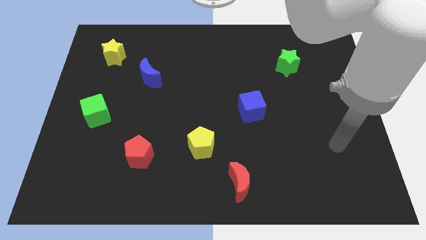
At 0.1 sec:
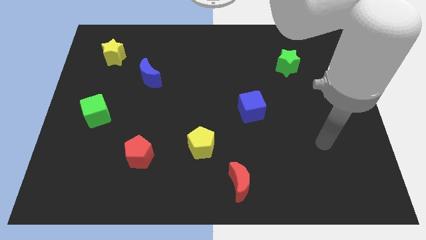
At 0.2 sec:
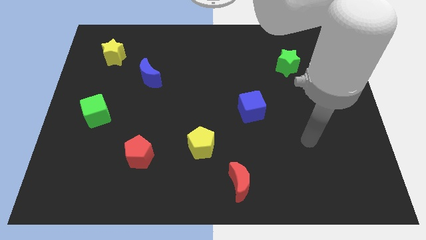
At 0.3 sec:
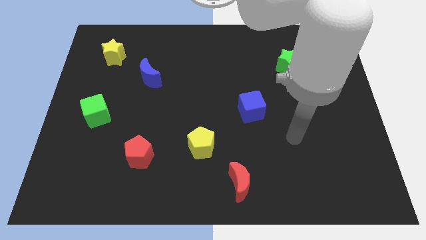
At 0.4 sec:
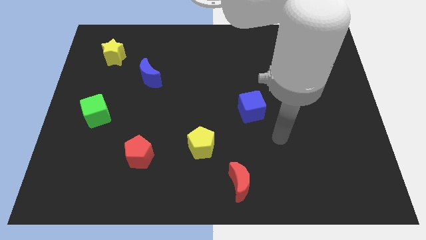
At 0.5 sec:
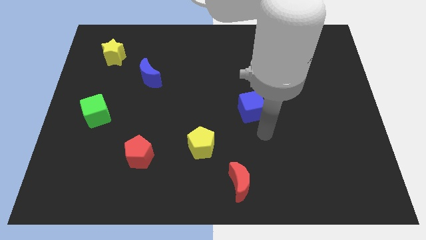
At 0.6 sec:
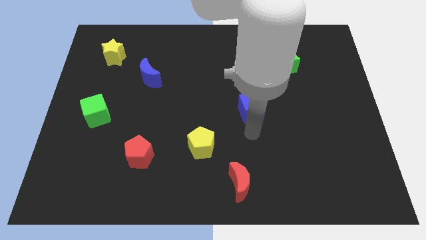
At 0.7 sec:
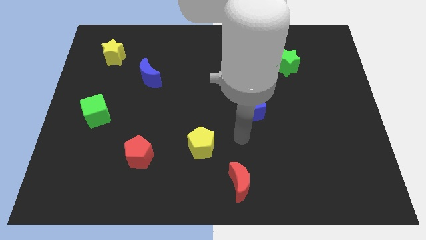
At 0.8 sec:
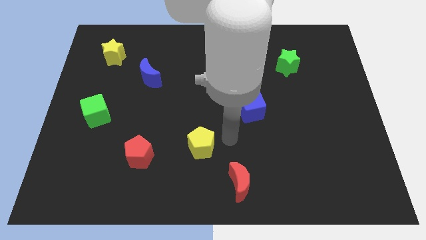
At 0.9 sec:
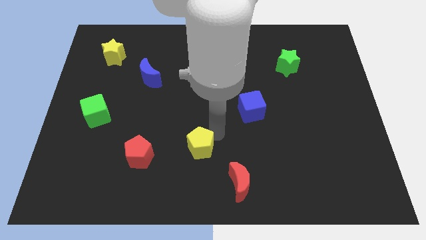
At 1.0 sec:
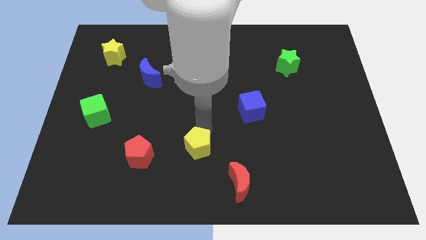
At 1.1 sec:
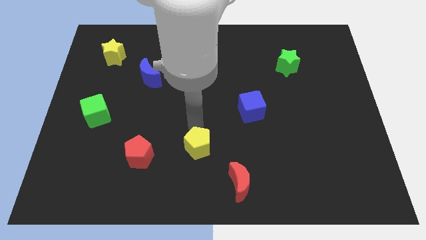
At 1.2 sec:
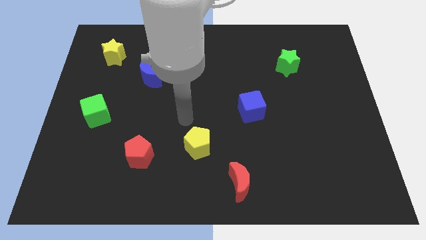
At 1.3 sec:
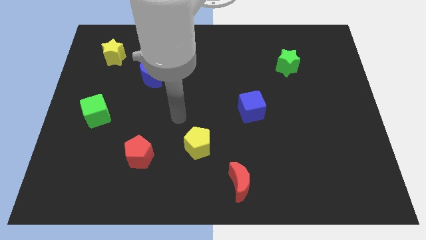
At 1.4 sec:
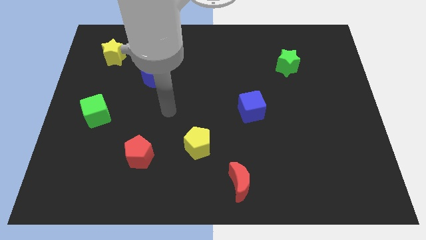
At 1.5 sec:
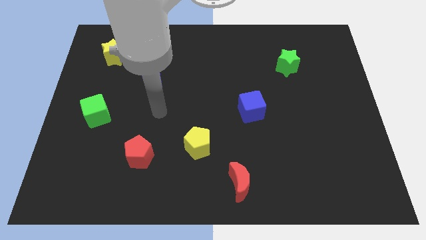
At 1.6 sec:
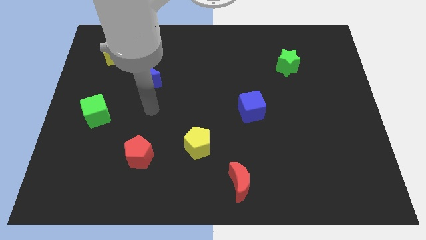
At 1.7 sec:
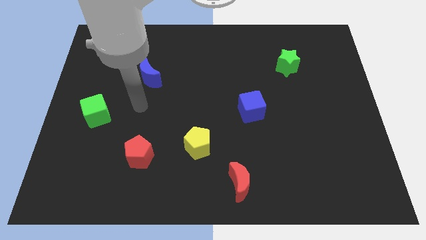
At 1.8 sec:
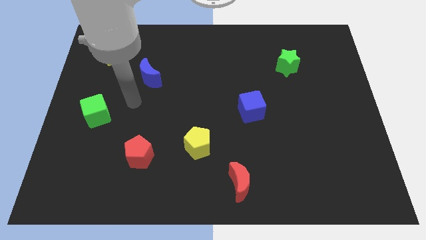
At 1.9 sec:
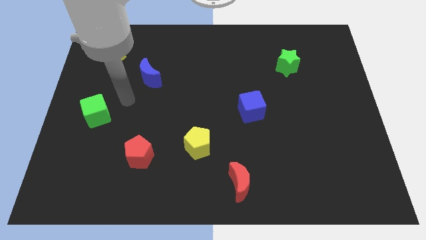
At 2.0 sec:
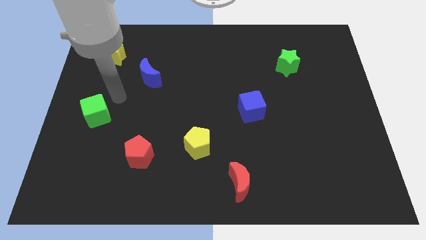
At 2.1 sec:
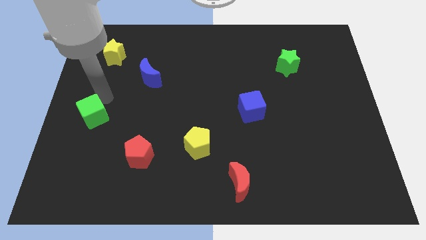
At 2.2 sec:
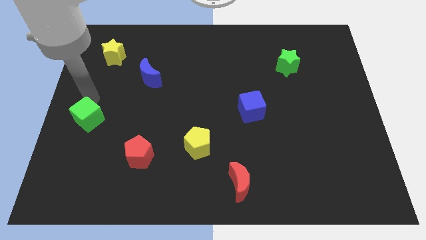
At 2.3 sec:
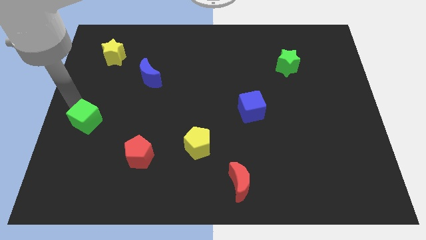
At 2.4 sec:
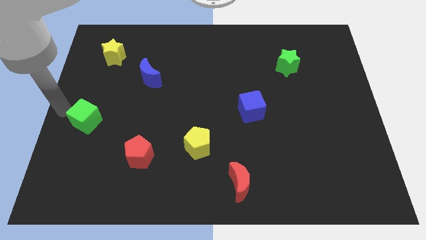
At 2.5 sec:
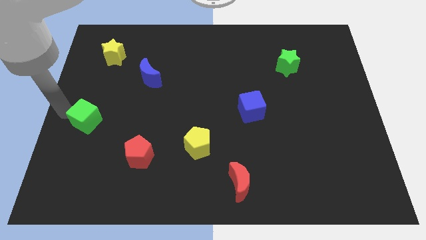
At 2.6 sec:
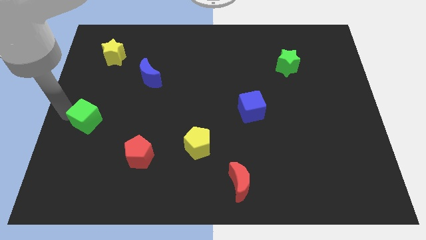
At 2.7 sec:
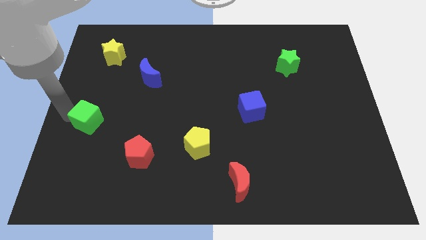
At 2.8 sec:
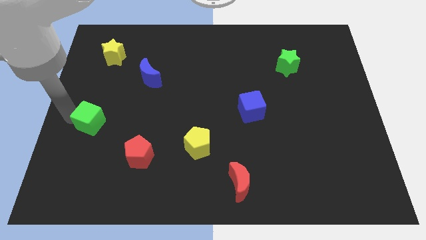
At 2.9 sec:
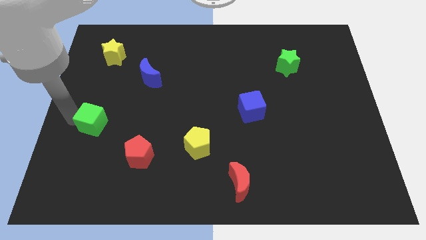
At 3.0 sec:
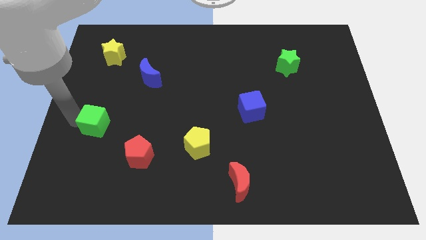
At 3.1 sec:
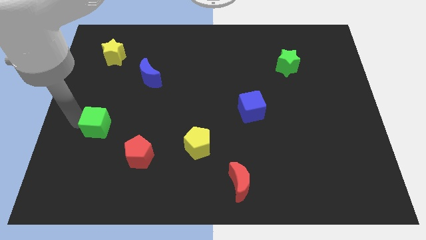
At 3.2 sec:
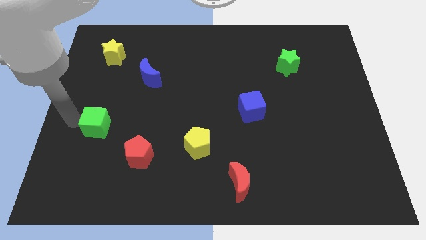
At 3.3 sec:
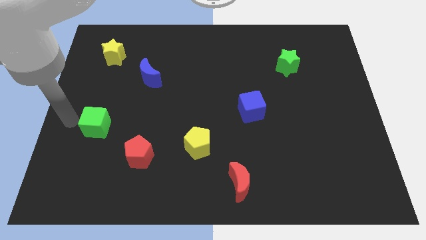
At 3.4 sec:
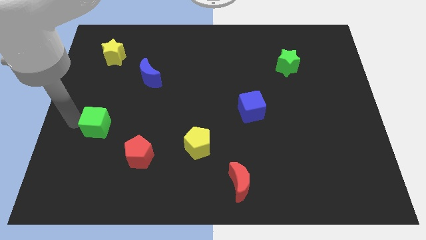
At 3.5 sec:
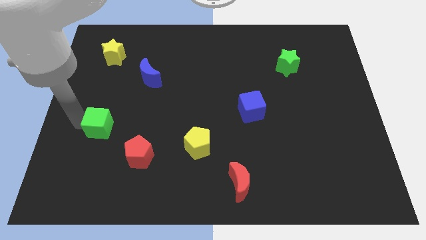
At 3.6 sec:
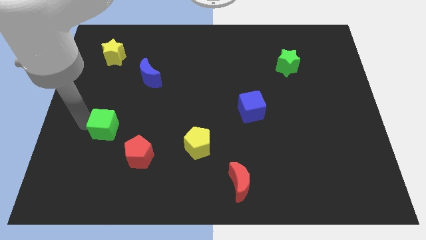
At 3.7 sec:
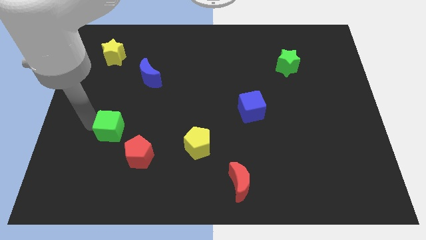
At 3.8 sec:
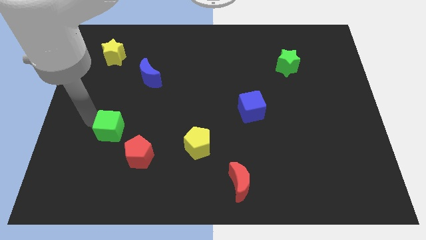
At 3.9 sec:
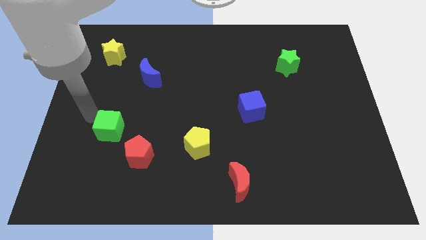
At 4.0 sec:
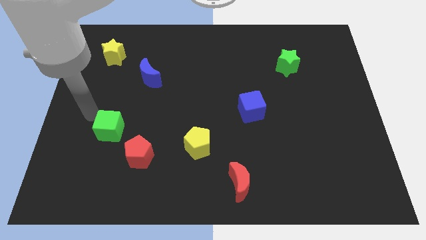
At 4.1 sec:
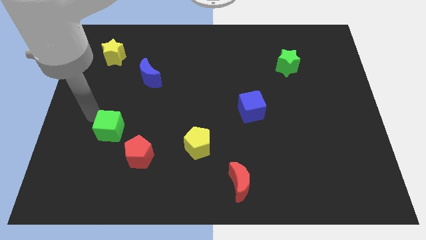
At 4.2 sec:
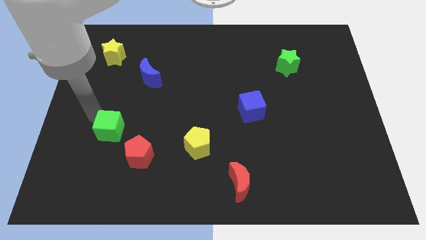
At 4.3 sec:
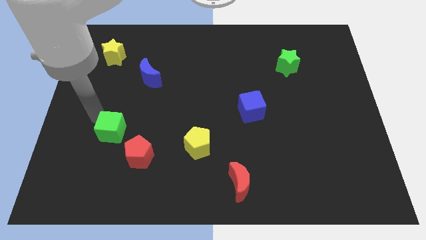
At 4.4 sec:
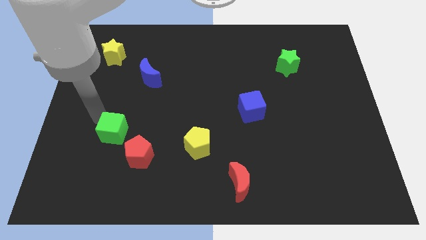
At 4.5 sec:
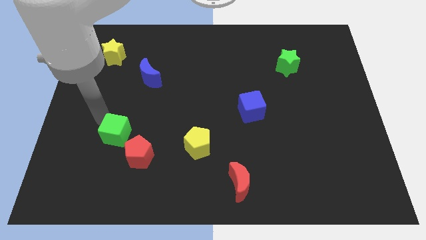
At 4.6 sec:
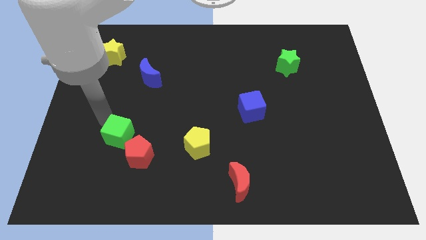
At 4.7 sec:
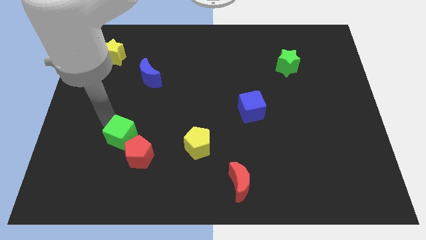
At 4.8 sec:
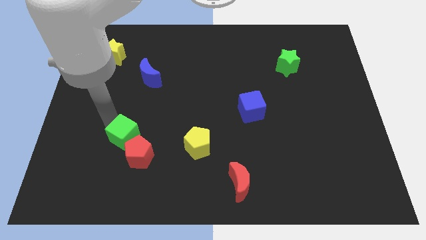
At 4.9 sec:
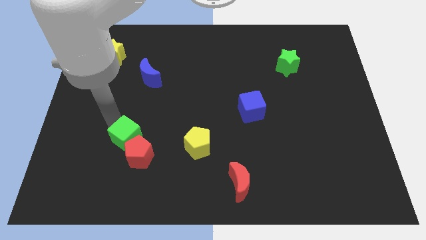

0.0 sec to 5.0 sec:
move the green cube towards the red pentagon

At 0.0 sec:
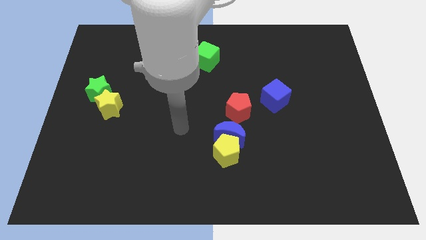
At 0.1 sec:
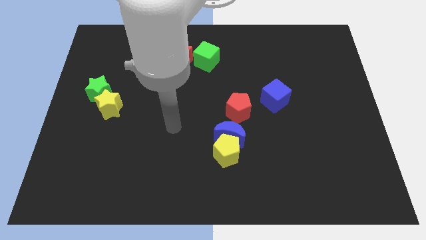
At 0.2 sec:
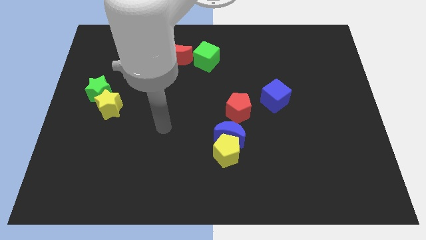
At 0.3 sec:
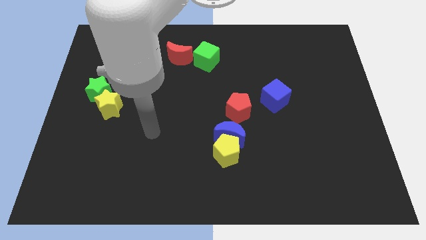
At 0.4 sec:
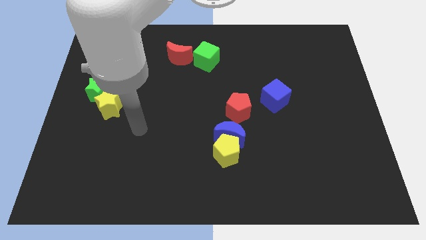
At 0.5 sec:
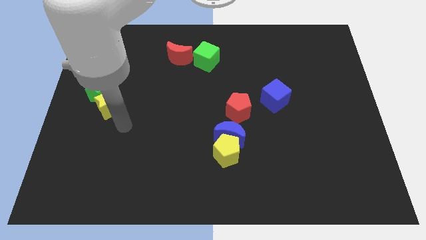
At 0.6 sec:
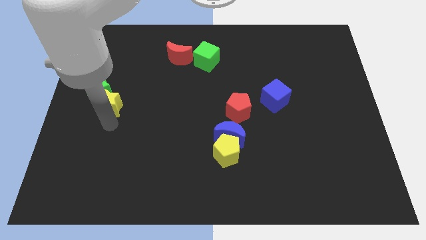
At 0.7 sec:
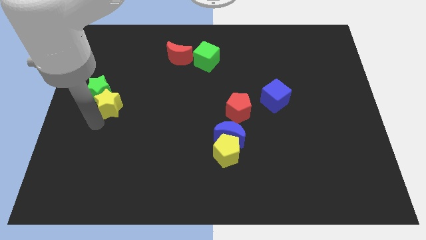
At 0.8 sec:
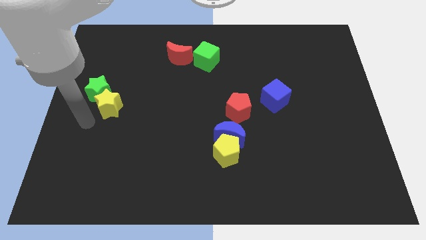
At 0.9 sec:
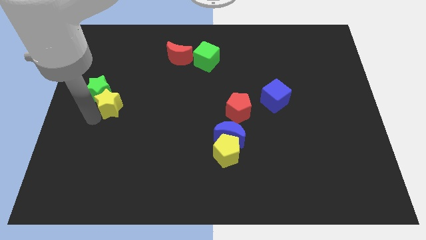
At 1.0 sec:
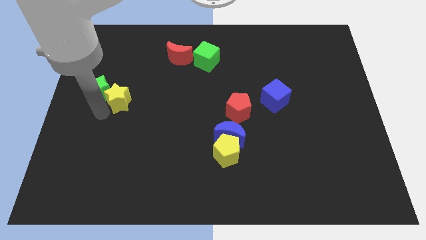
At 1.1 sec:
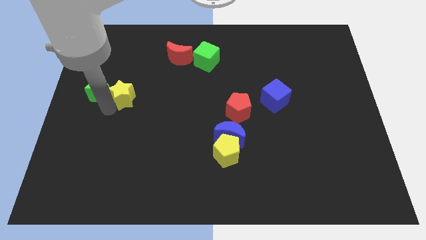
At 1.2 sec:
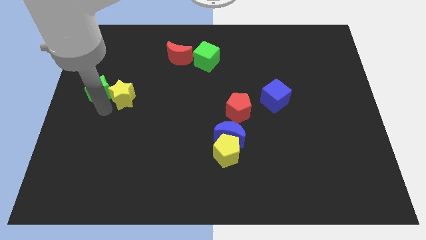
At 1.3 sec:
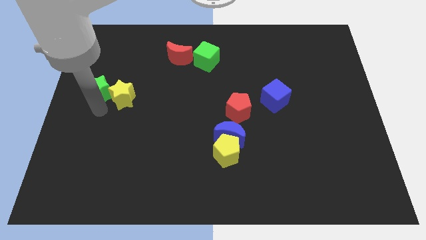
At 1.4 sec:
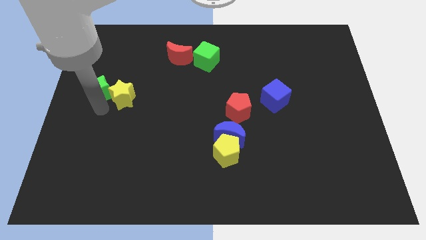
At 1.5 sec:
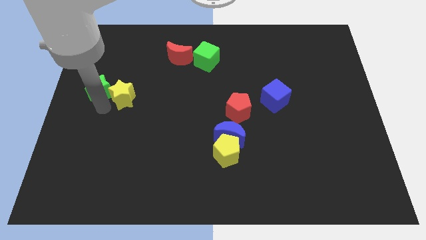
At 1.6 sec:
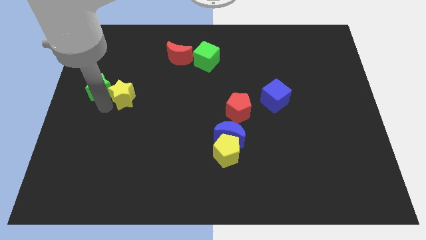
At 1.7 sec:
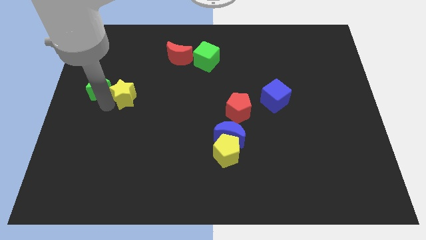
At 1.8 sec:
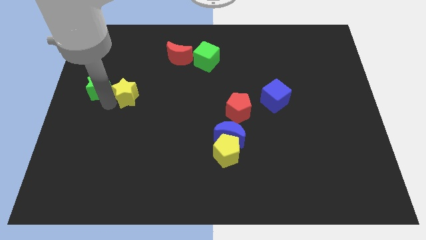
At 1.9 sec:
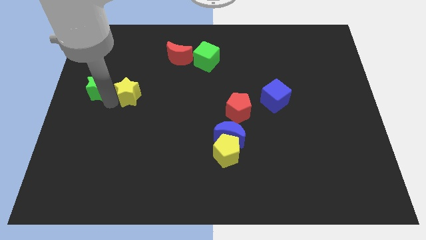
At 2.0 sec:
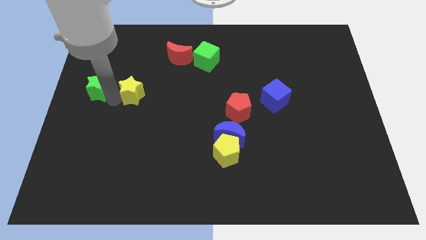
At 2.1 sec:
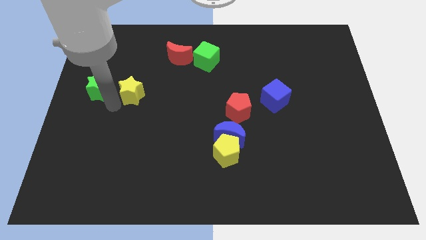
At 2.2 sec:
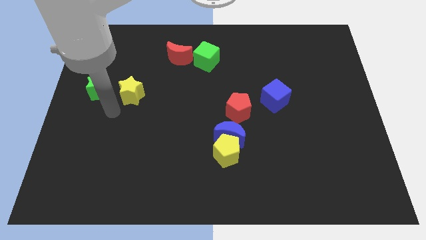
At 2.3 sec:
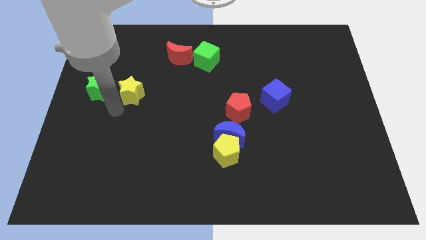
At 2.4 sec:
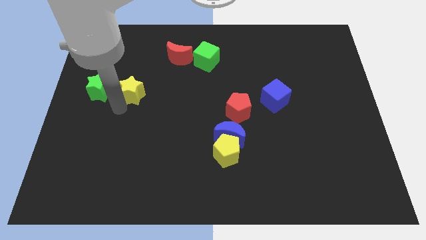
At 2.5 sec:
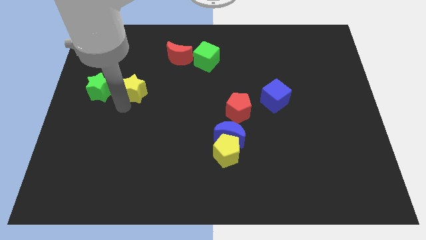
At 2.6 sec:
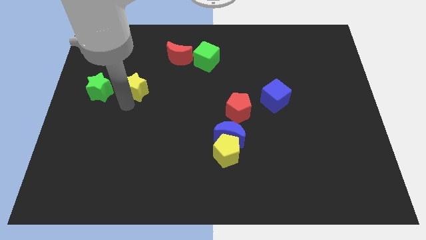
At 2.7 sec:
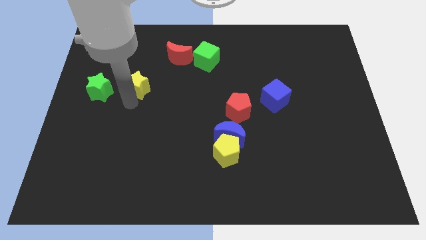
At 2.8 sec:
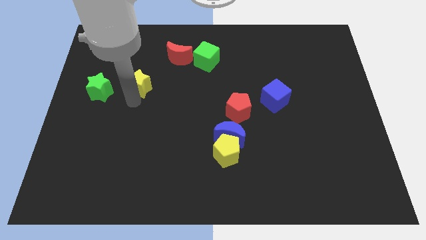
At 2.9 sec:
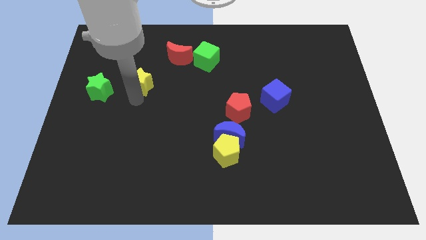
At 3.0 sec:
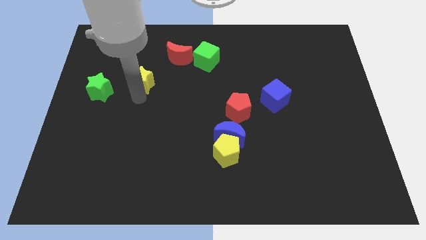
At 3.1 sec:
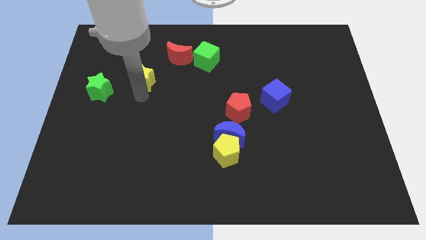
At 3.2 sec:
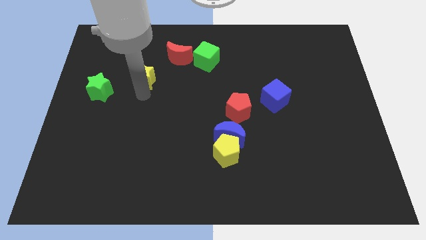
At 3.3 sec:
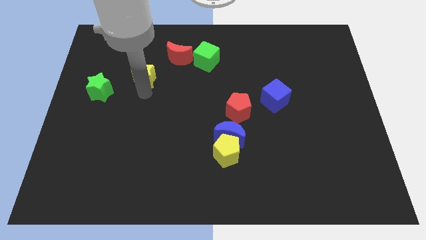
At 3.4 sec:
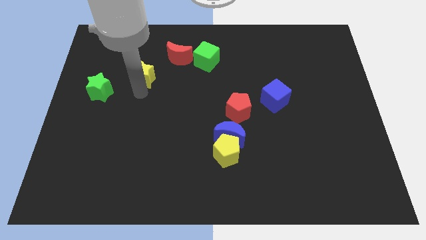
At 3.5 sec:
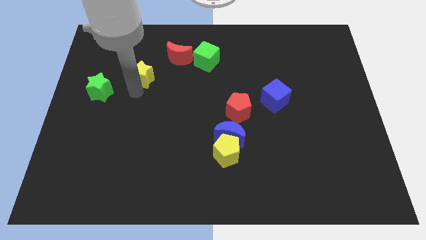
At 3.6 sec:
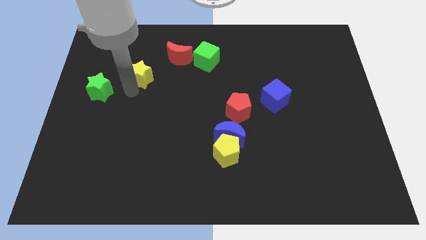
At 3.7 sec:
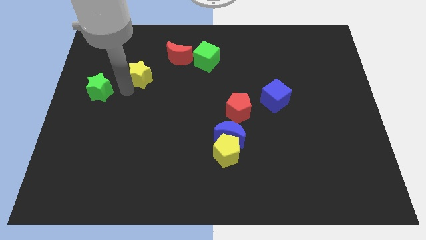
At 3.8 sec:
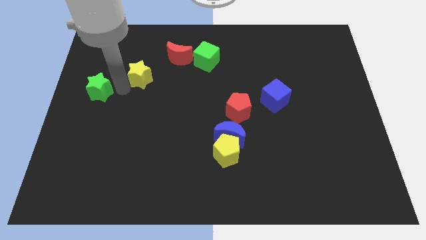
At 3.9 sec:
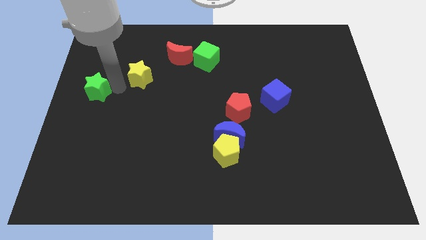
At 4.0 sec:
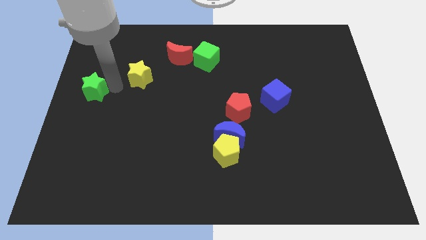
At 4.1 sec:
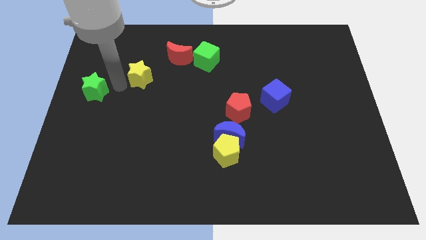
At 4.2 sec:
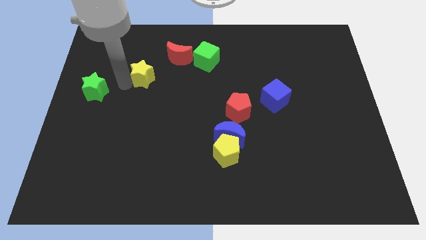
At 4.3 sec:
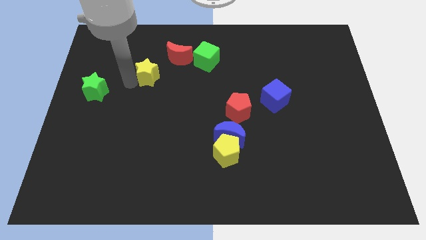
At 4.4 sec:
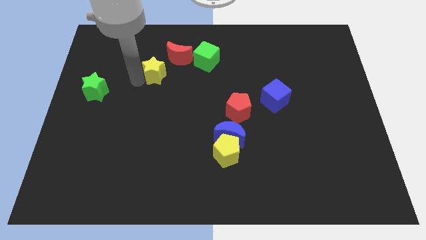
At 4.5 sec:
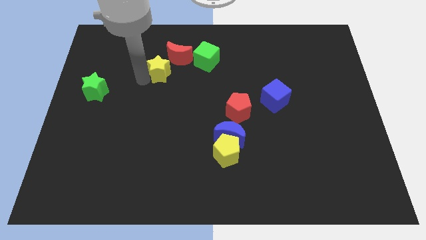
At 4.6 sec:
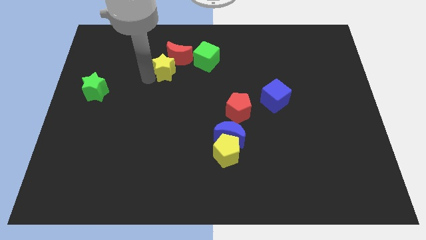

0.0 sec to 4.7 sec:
slide the yellow star close to the red moon
